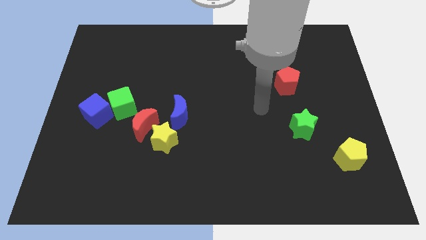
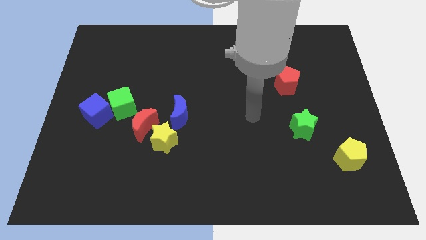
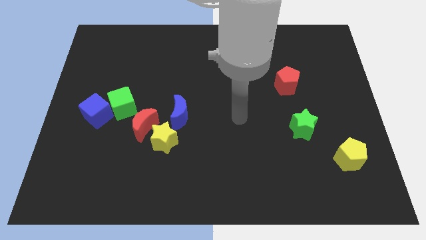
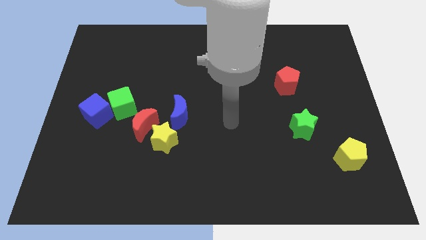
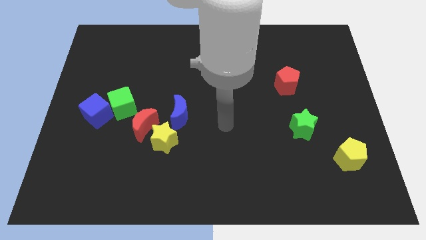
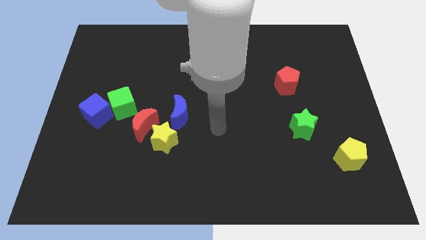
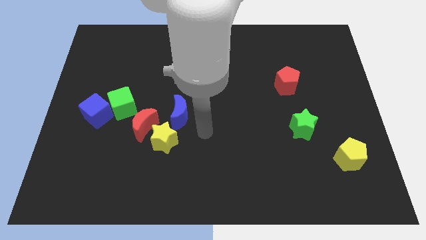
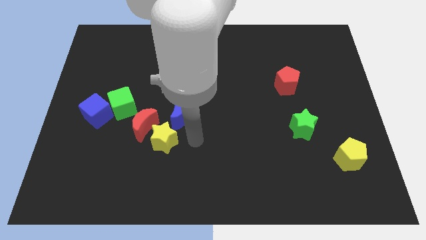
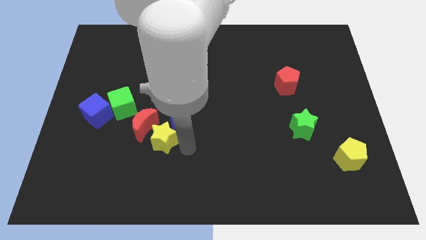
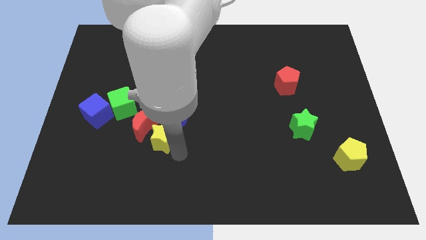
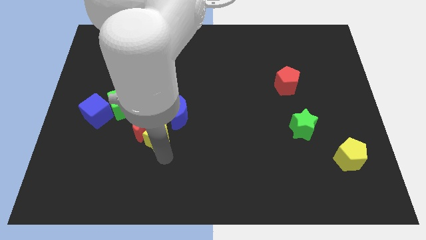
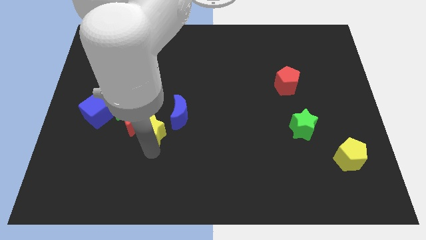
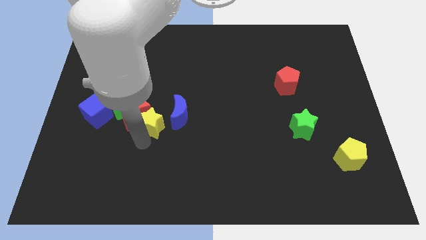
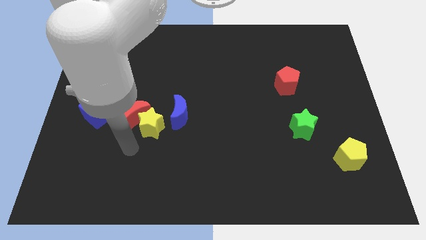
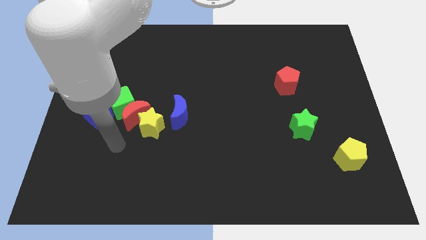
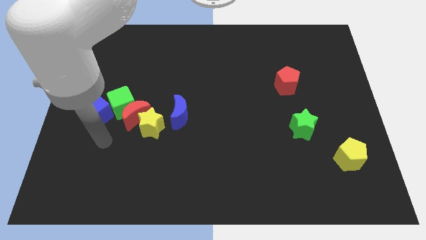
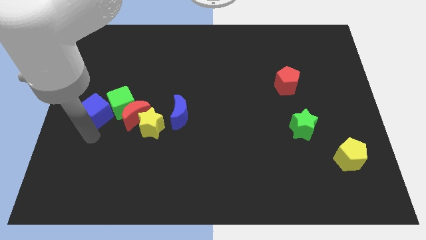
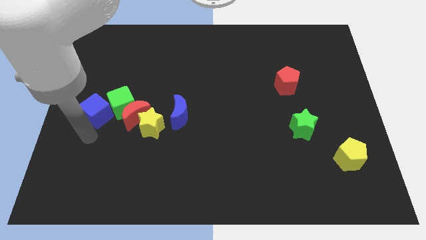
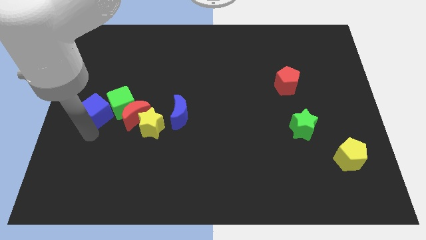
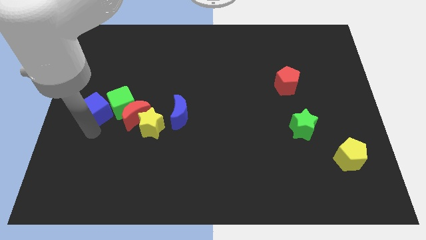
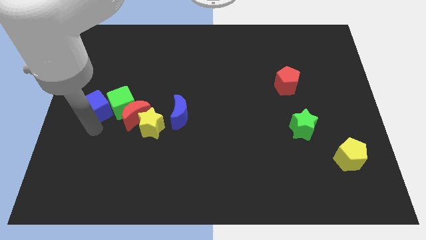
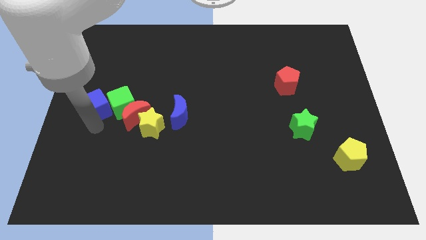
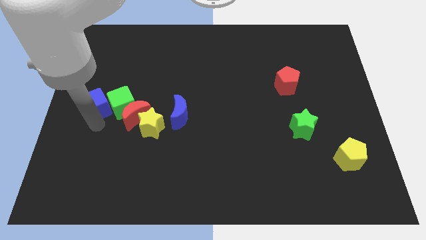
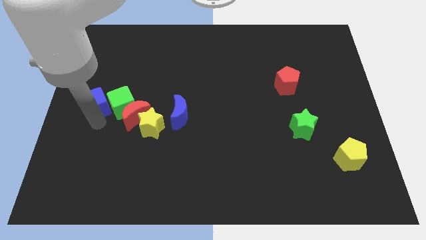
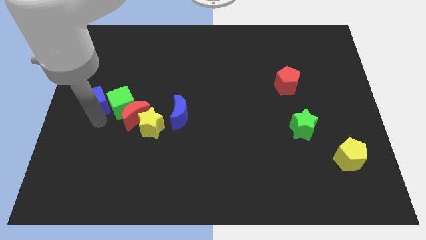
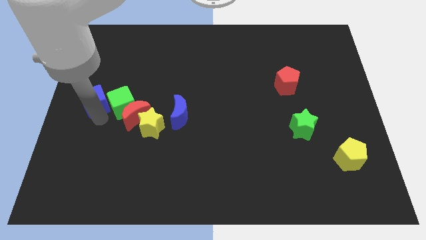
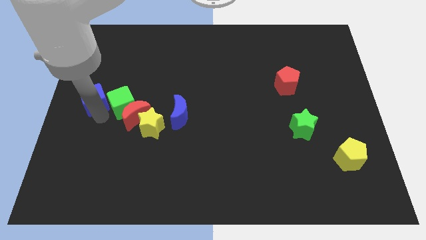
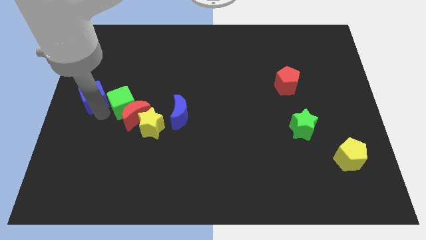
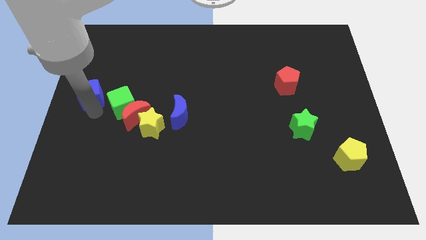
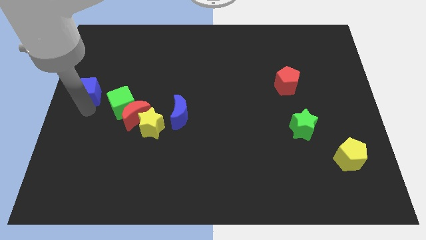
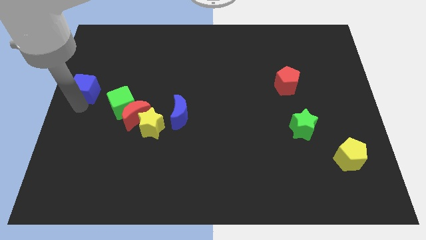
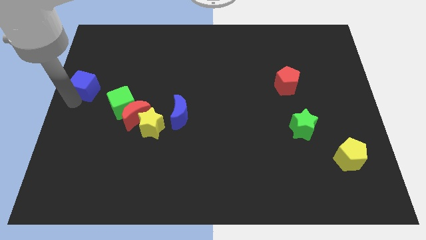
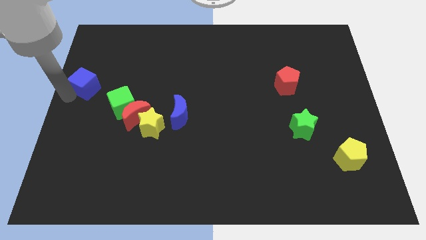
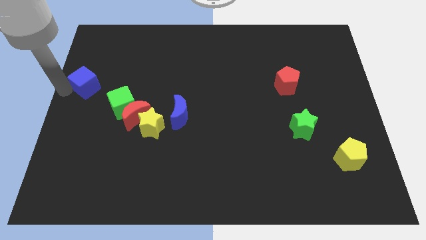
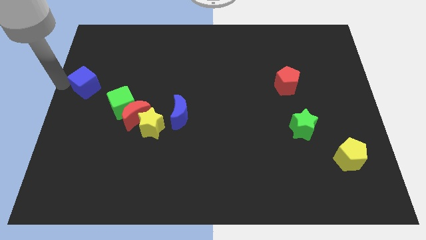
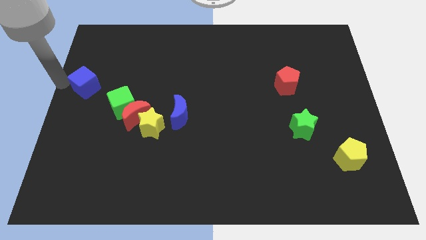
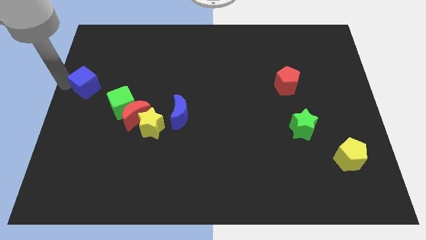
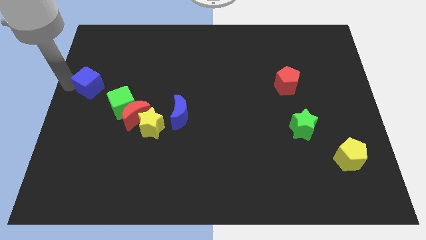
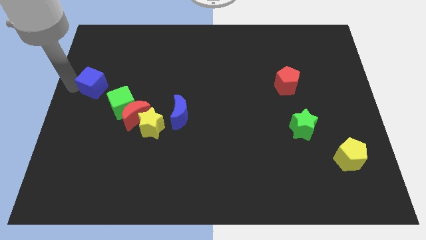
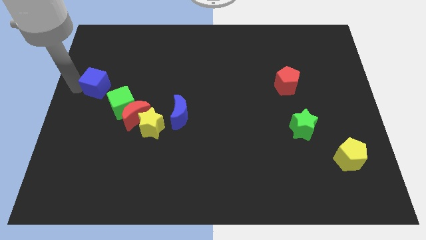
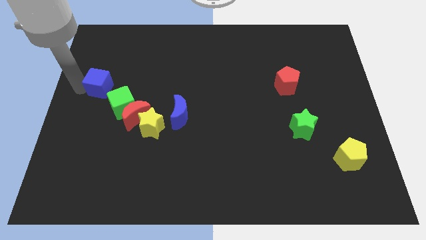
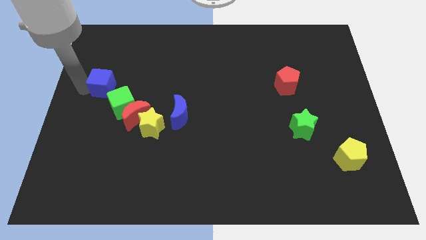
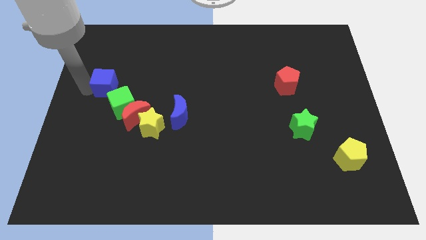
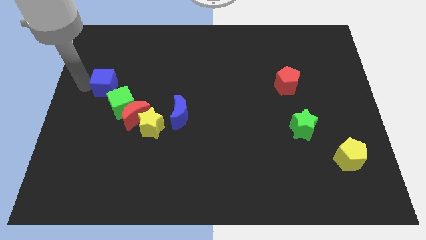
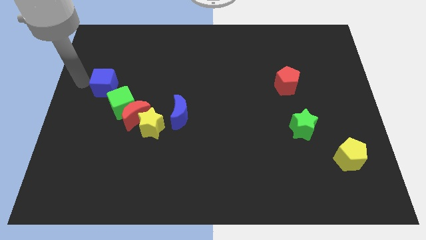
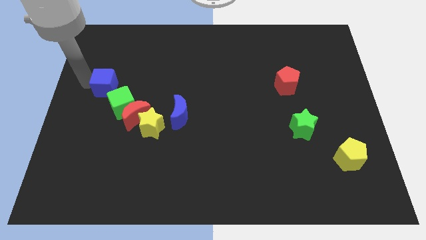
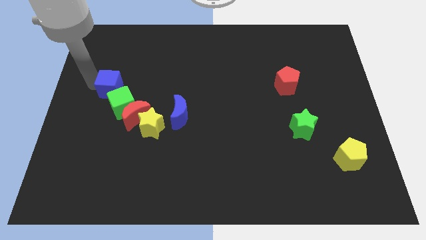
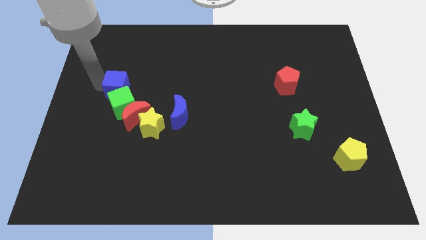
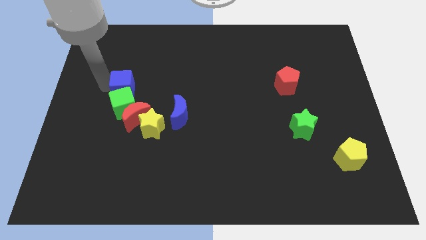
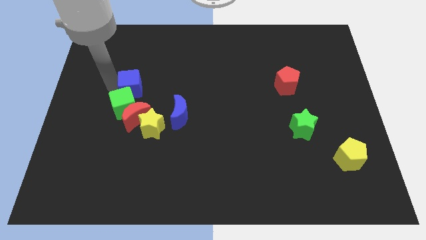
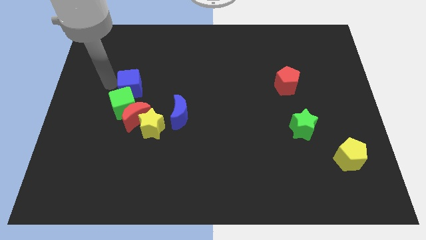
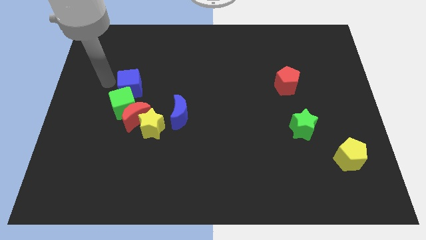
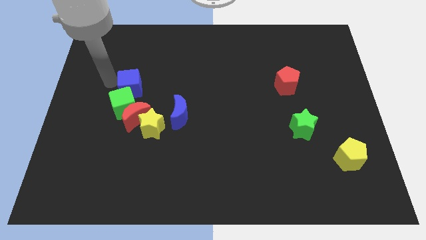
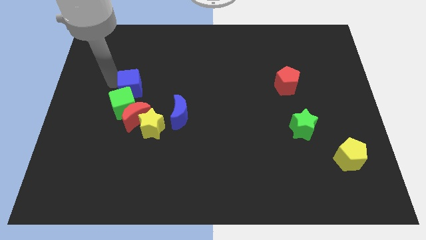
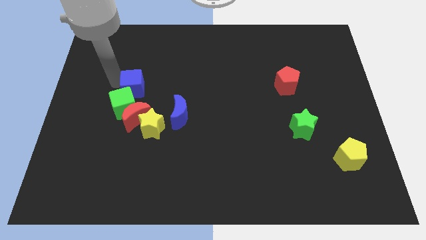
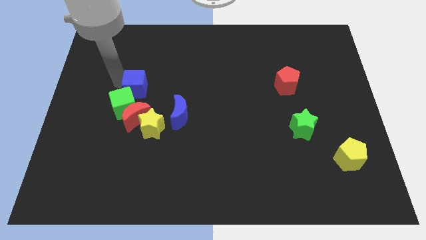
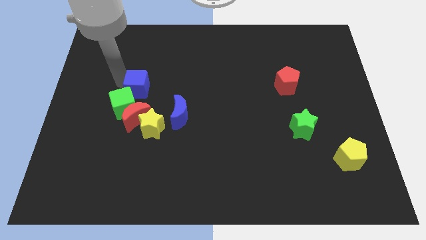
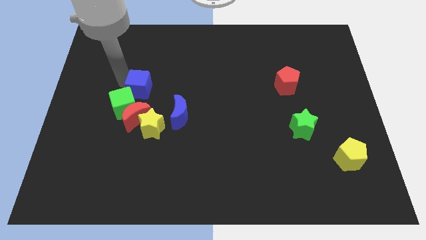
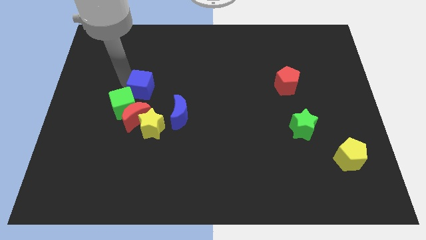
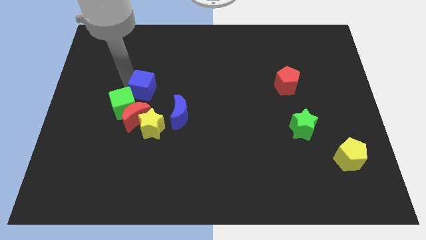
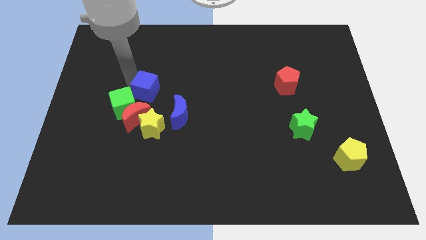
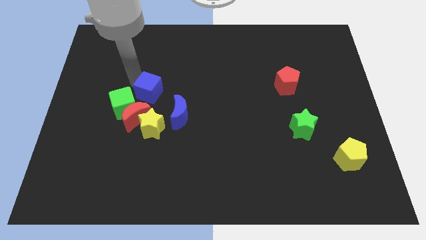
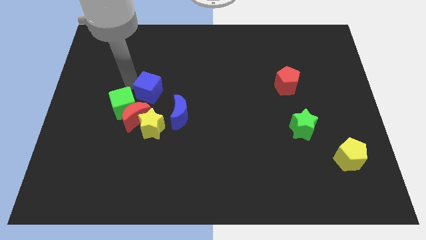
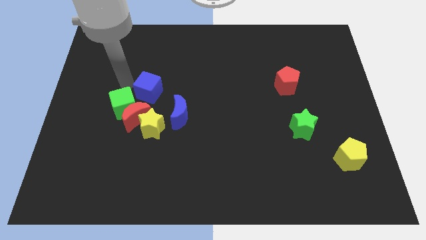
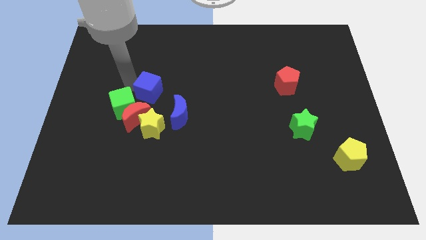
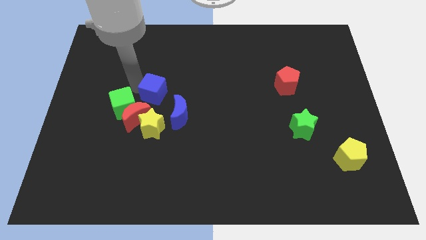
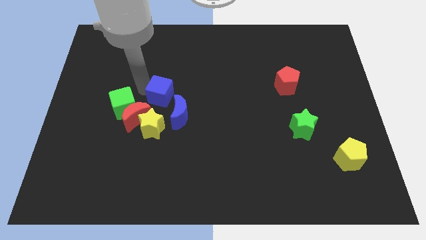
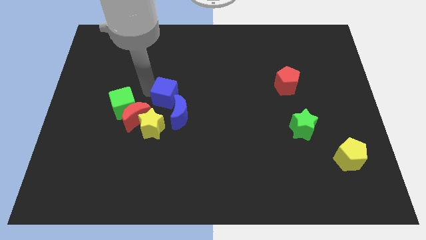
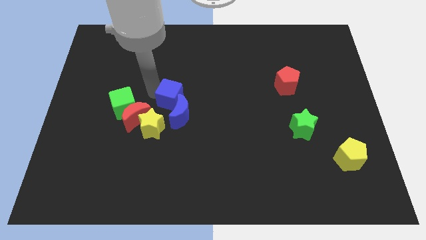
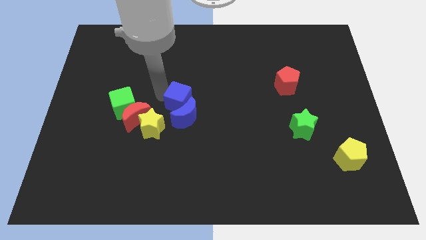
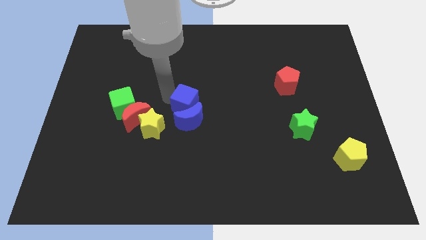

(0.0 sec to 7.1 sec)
move the blue cube to the right

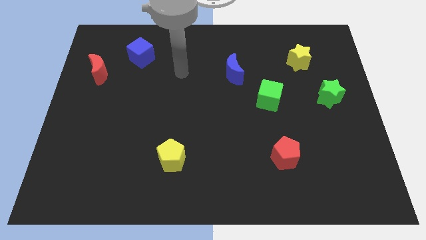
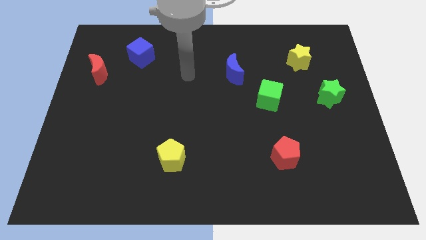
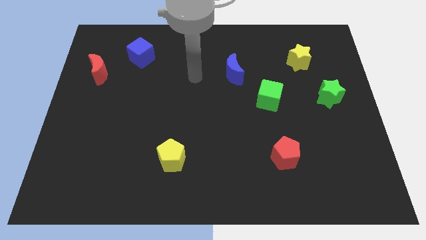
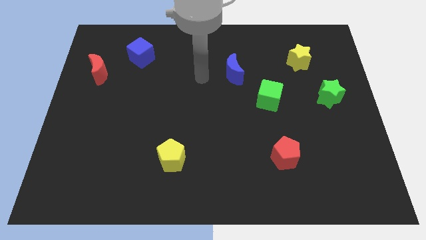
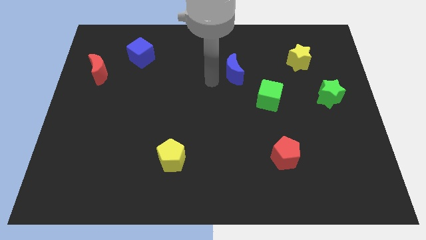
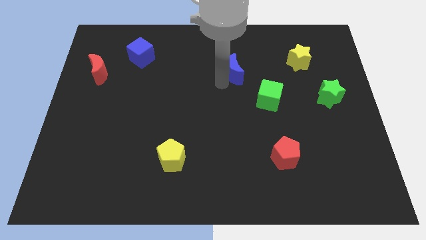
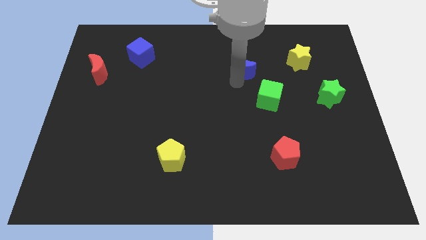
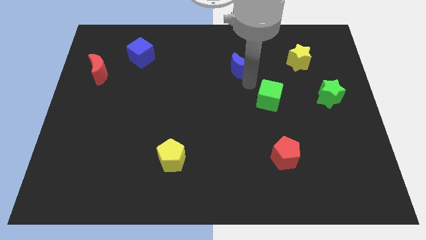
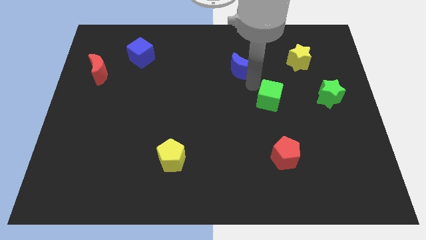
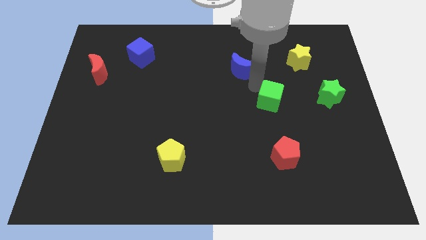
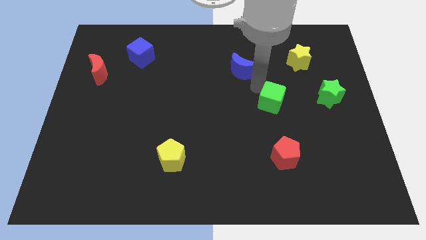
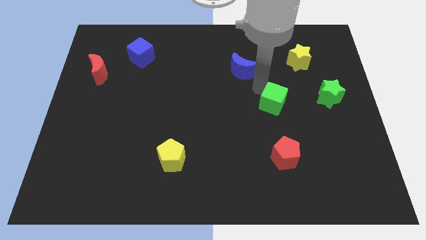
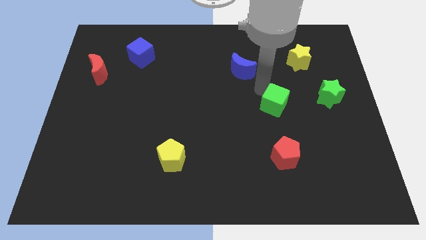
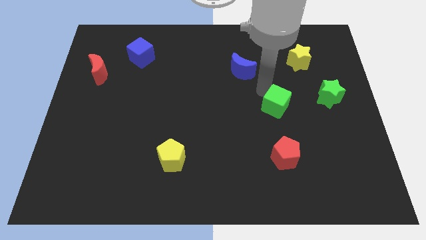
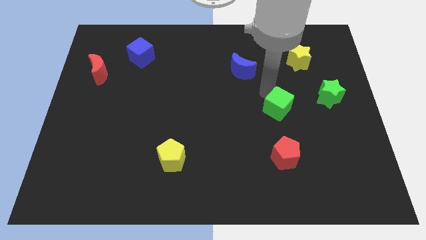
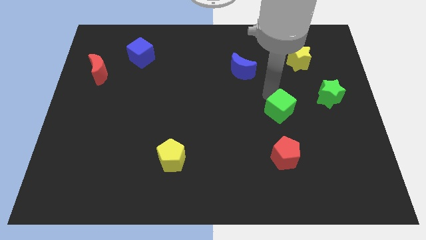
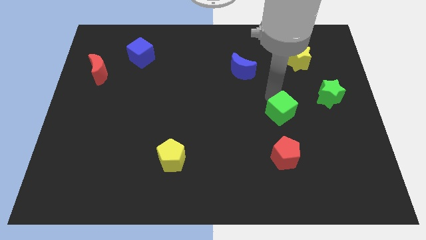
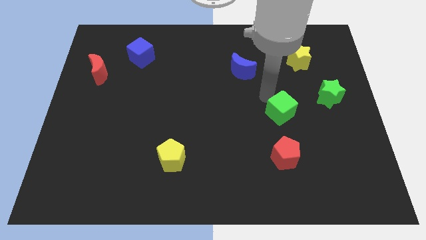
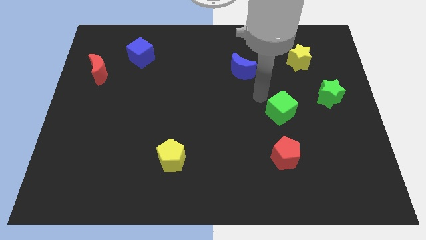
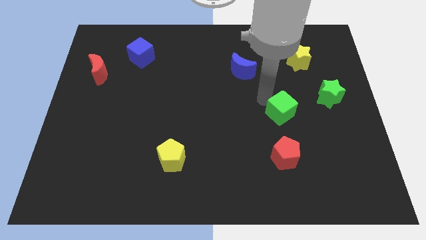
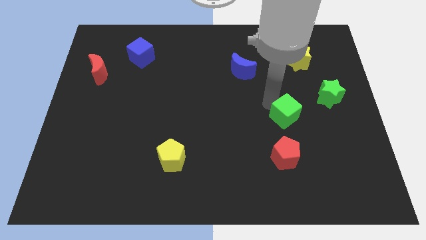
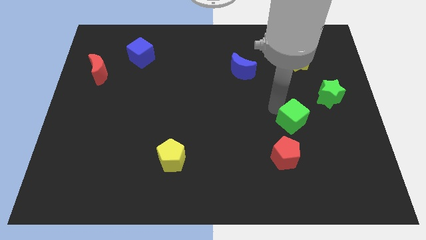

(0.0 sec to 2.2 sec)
push the green cube a little downwards and then to the right
